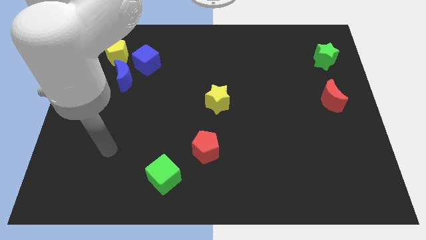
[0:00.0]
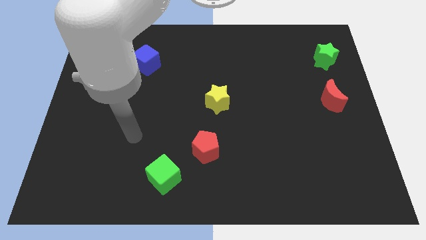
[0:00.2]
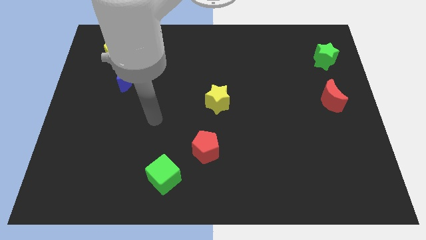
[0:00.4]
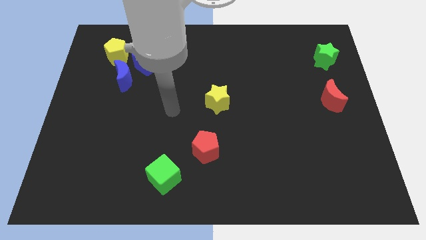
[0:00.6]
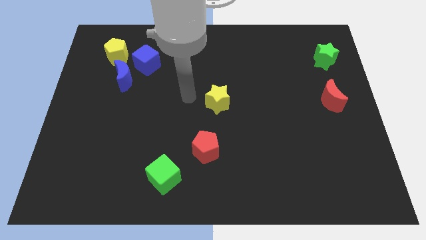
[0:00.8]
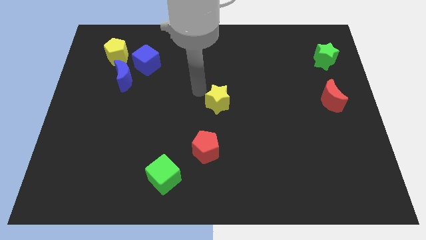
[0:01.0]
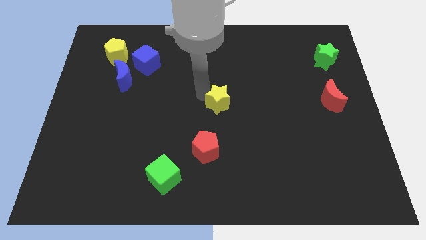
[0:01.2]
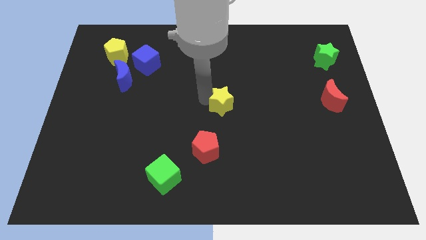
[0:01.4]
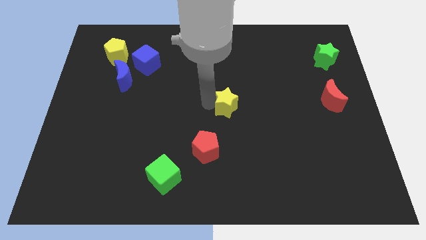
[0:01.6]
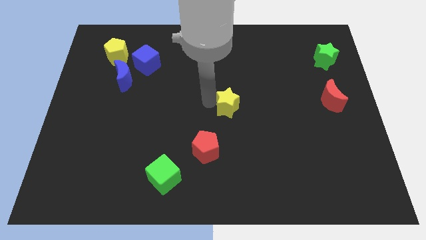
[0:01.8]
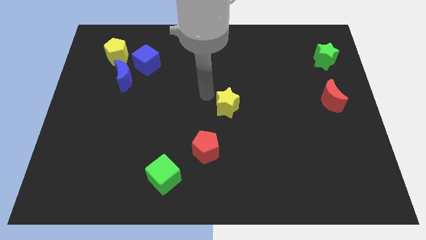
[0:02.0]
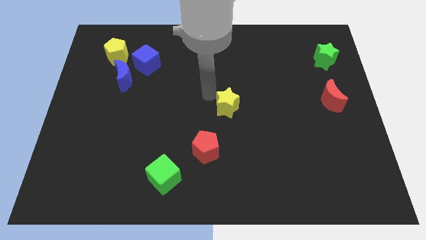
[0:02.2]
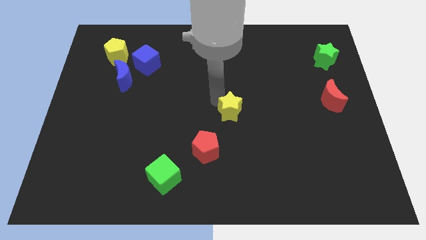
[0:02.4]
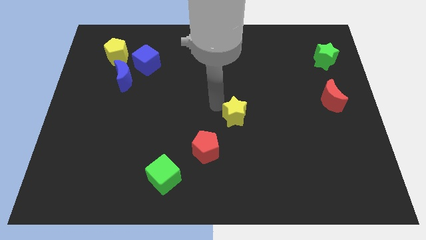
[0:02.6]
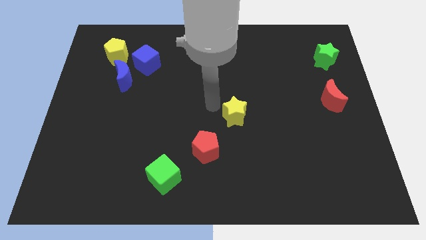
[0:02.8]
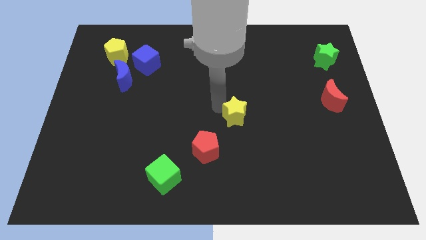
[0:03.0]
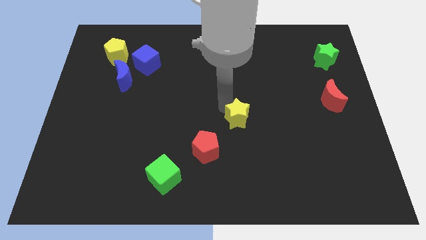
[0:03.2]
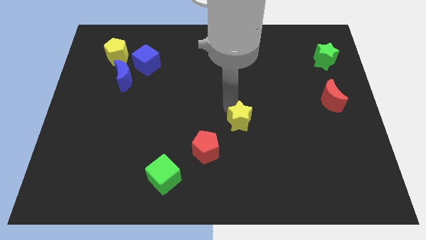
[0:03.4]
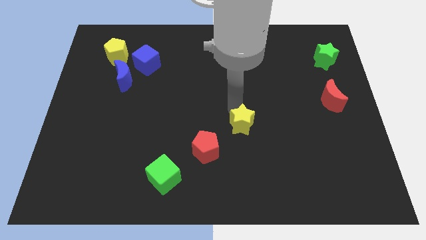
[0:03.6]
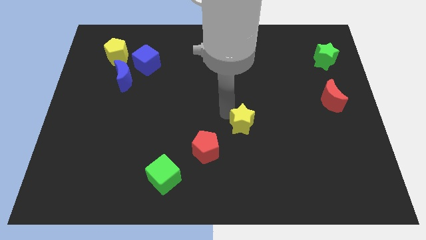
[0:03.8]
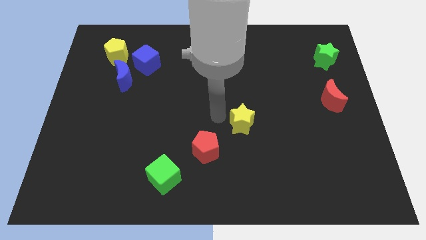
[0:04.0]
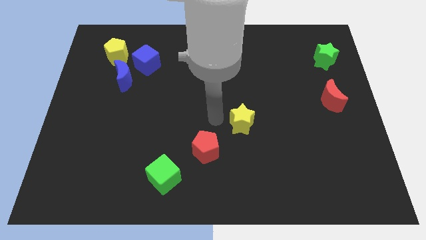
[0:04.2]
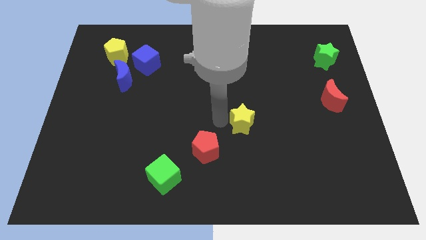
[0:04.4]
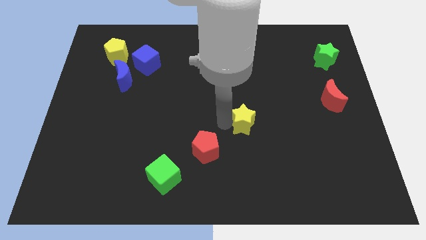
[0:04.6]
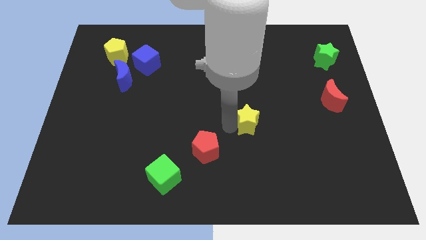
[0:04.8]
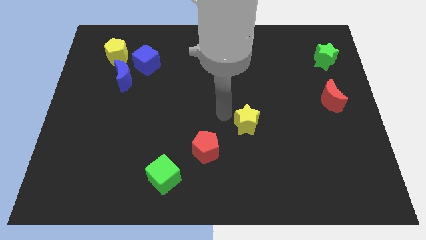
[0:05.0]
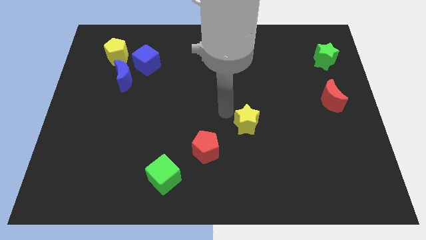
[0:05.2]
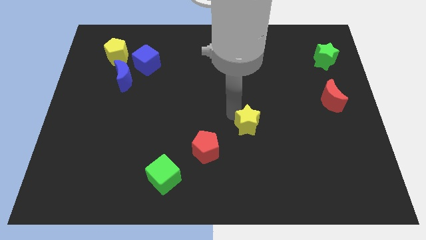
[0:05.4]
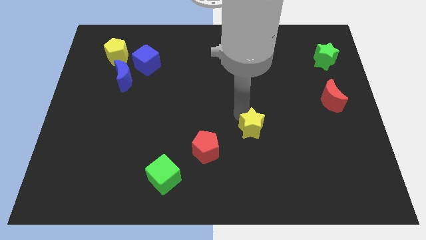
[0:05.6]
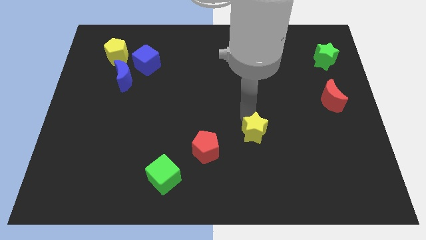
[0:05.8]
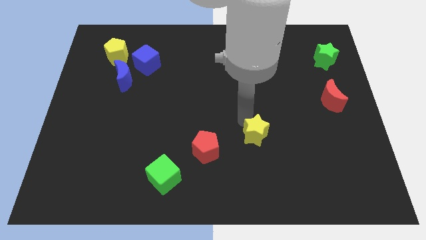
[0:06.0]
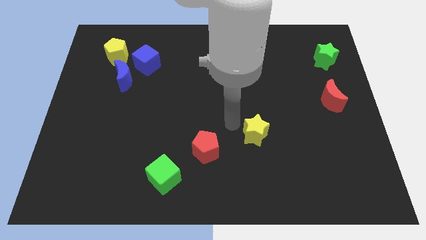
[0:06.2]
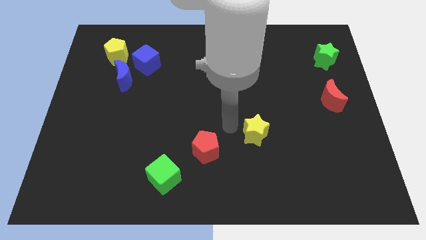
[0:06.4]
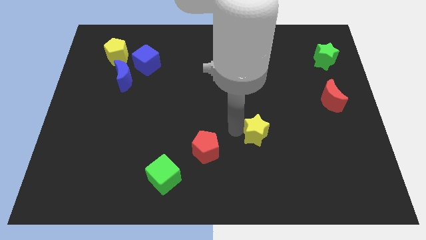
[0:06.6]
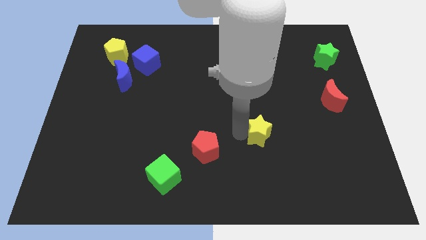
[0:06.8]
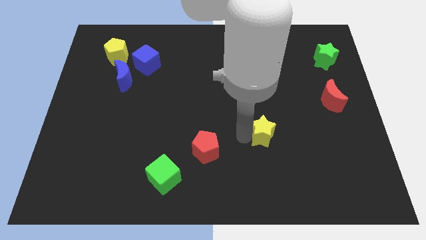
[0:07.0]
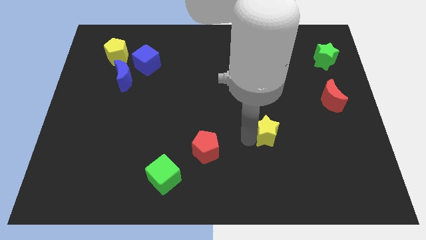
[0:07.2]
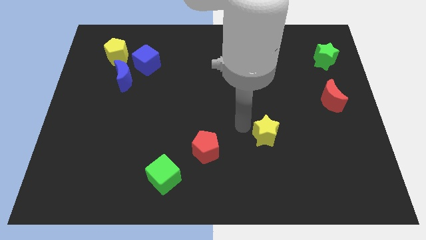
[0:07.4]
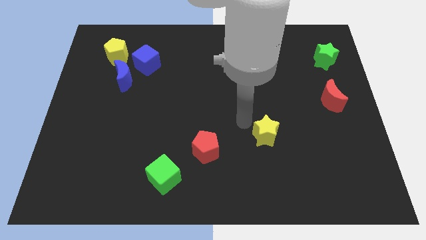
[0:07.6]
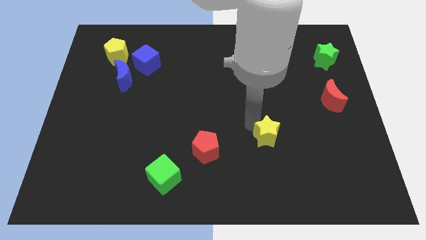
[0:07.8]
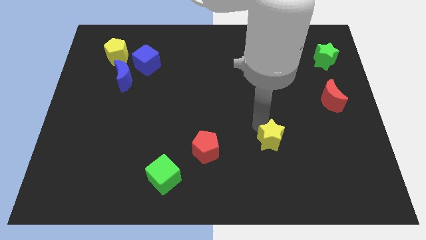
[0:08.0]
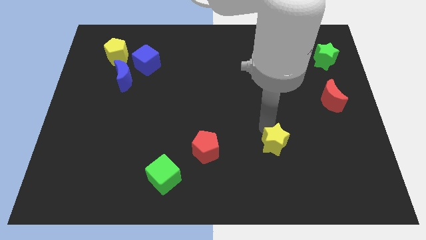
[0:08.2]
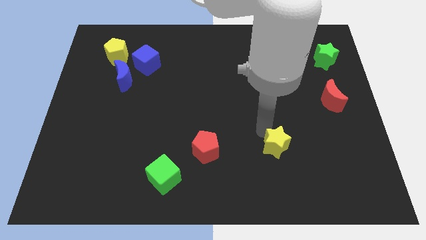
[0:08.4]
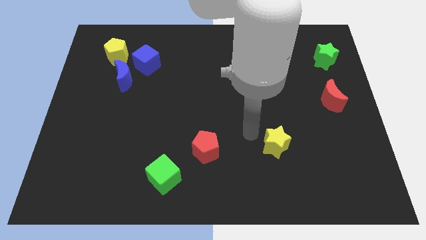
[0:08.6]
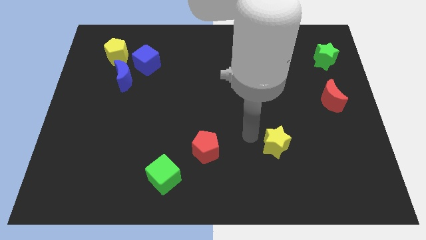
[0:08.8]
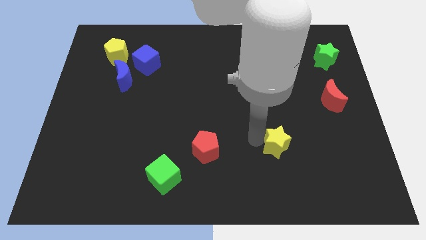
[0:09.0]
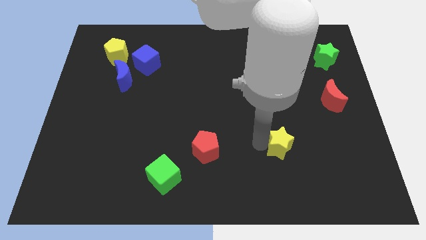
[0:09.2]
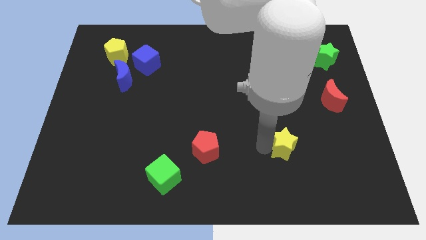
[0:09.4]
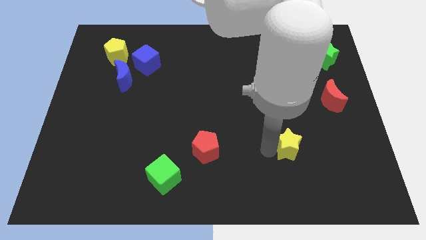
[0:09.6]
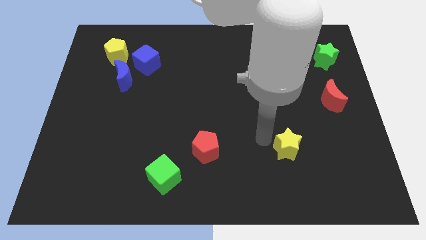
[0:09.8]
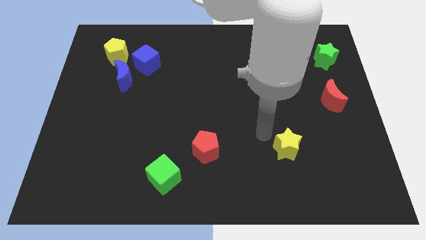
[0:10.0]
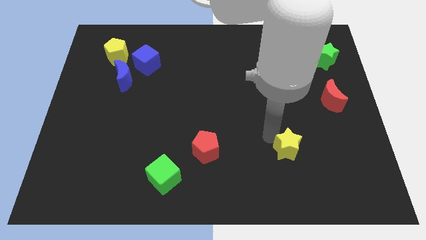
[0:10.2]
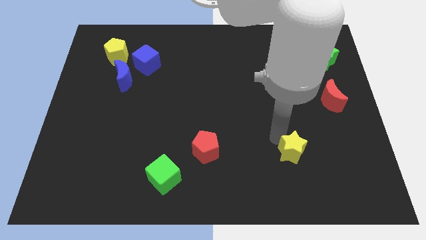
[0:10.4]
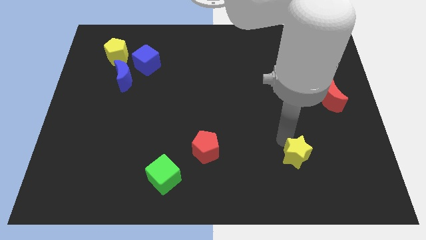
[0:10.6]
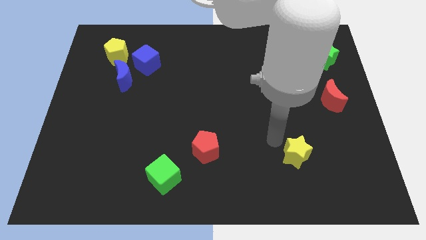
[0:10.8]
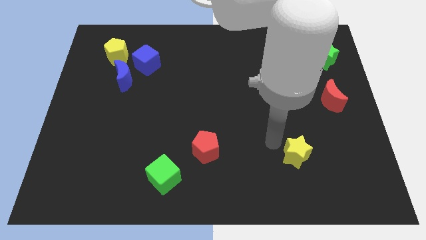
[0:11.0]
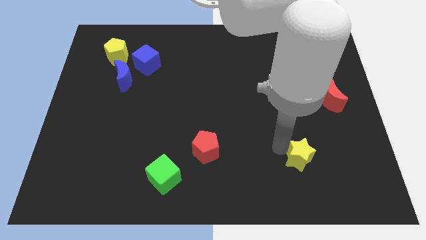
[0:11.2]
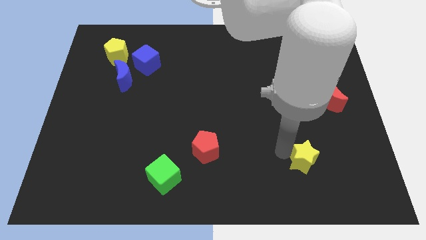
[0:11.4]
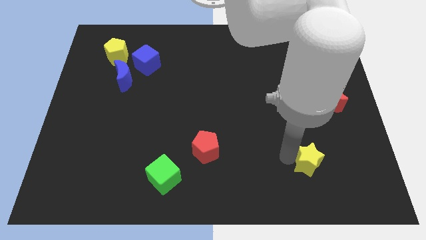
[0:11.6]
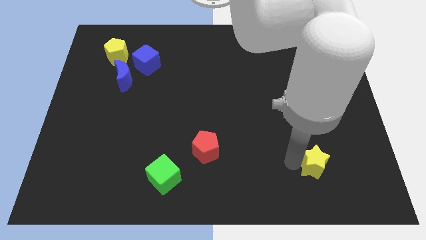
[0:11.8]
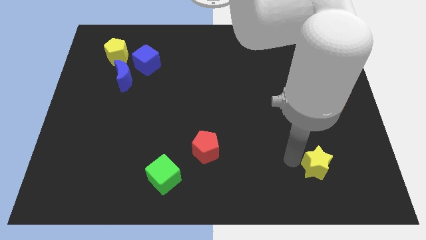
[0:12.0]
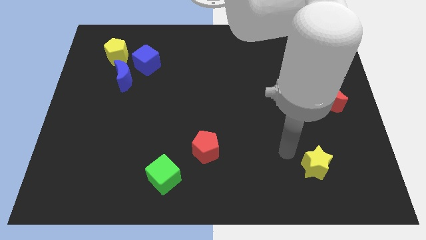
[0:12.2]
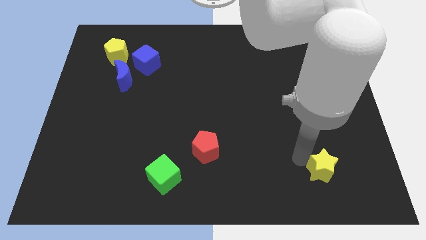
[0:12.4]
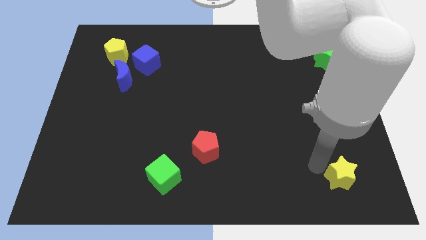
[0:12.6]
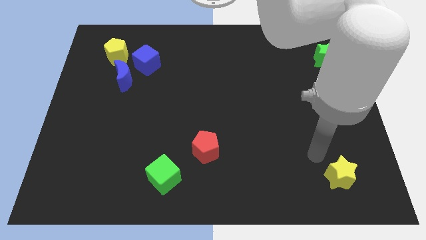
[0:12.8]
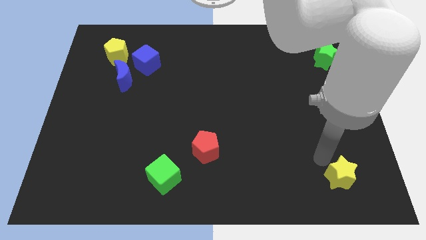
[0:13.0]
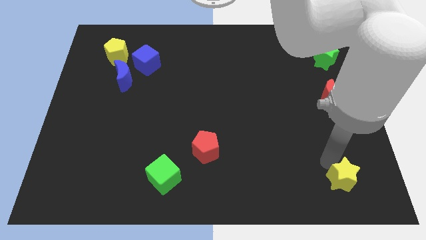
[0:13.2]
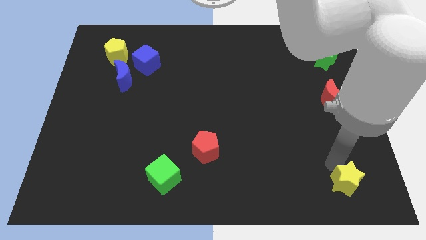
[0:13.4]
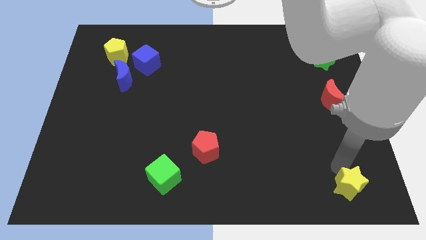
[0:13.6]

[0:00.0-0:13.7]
push the yellow star to the lower right corner

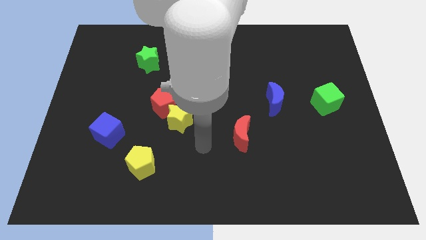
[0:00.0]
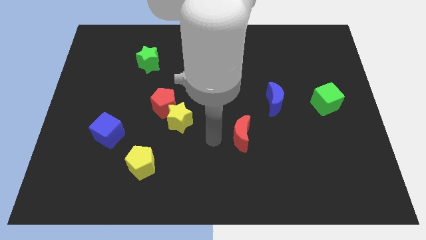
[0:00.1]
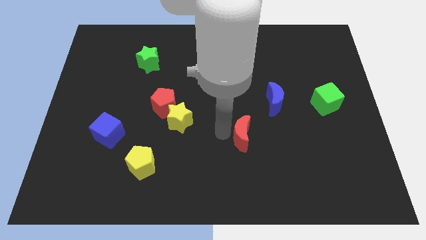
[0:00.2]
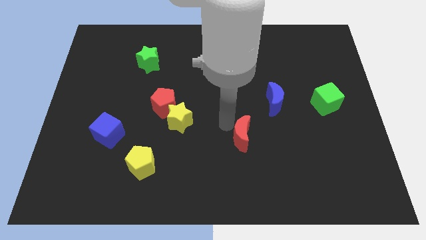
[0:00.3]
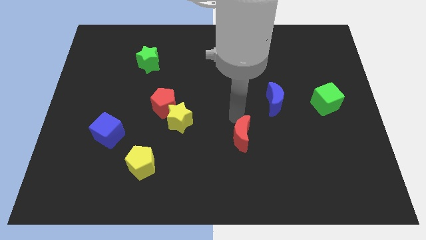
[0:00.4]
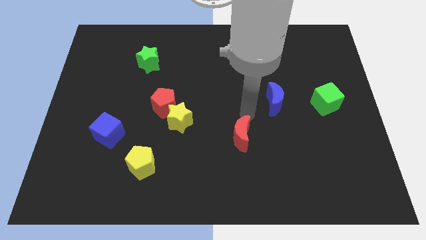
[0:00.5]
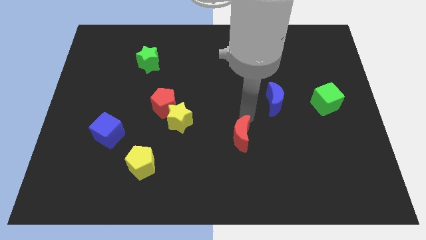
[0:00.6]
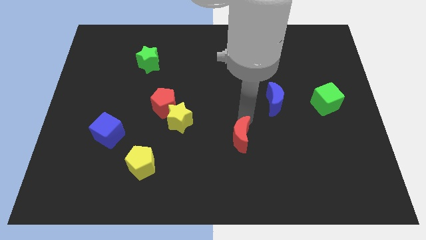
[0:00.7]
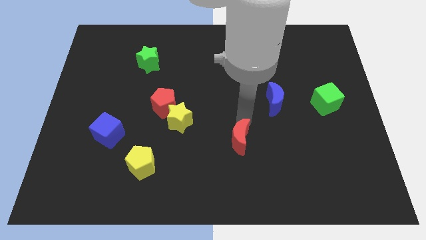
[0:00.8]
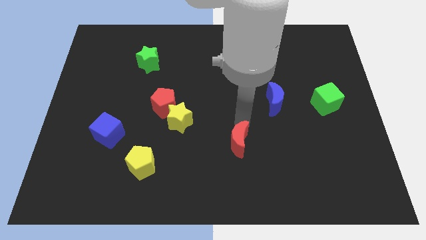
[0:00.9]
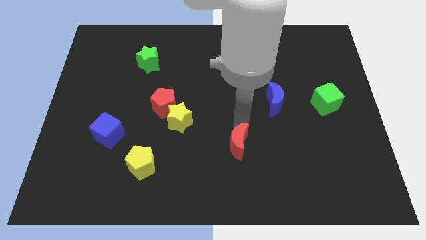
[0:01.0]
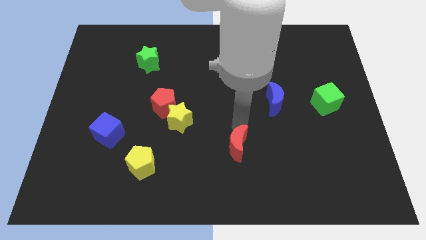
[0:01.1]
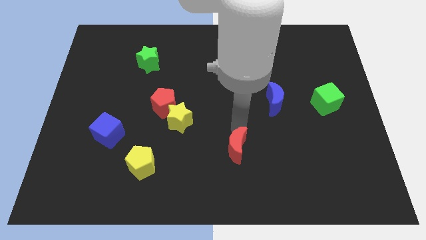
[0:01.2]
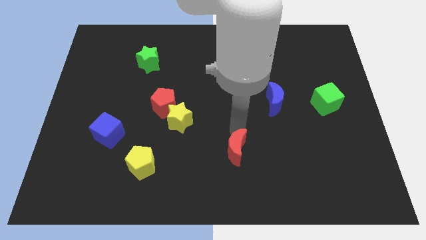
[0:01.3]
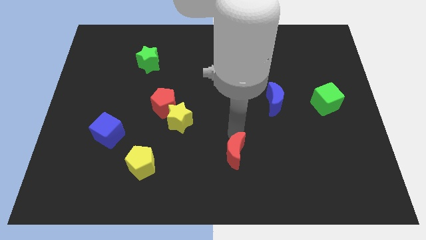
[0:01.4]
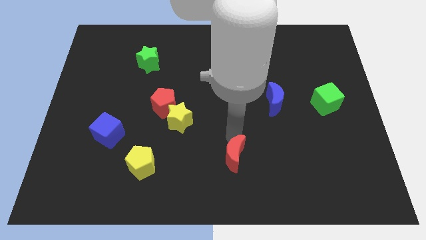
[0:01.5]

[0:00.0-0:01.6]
move the red moon to the bottom
